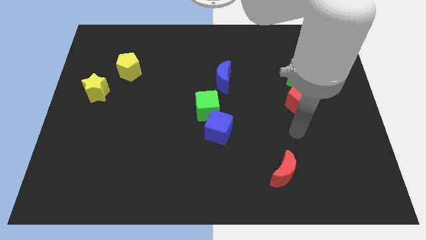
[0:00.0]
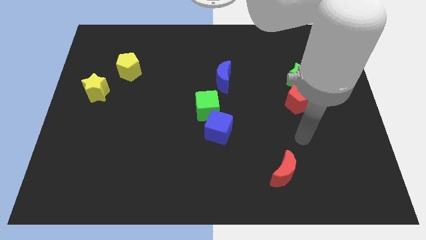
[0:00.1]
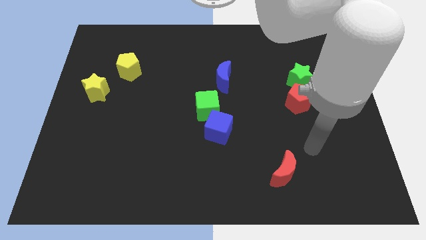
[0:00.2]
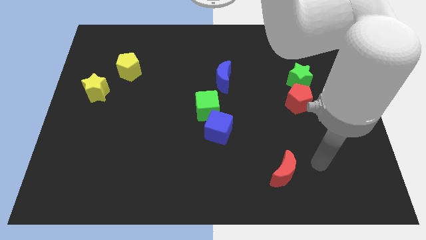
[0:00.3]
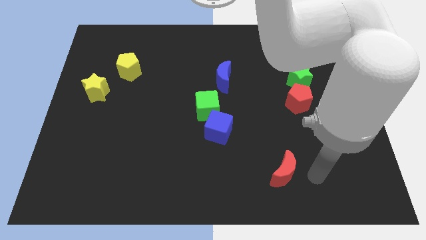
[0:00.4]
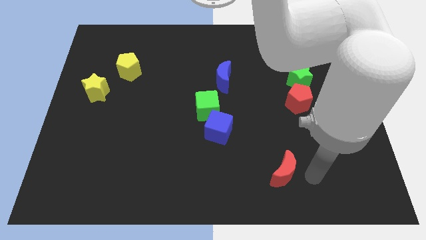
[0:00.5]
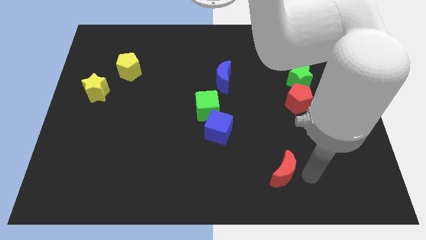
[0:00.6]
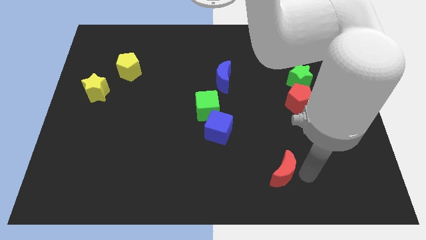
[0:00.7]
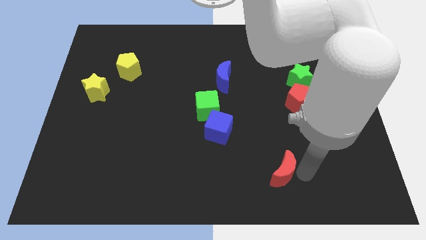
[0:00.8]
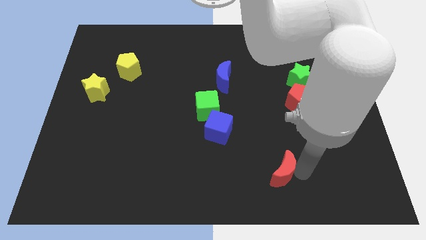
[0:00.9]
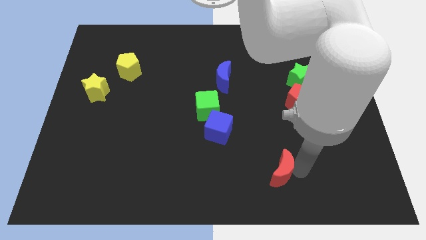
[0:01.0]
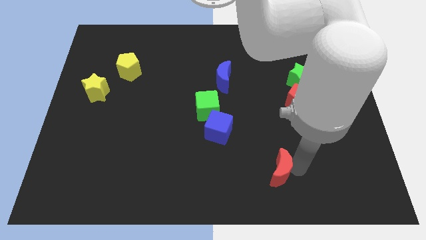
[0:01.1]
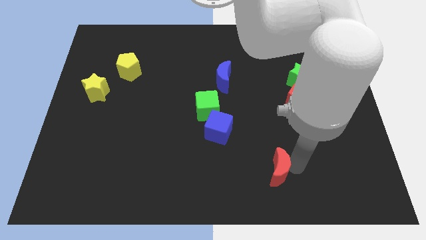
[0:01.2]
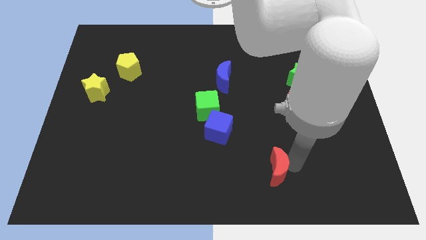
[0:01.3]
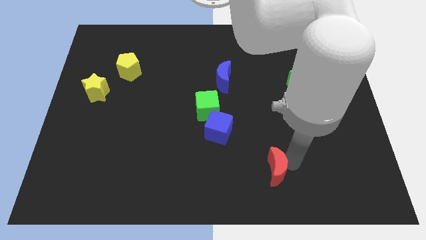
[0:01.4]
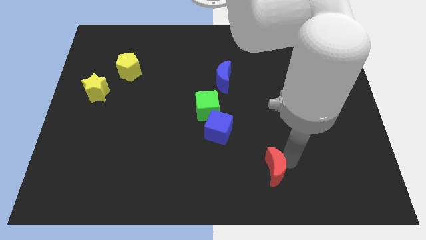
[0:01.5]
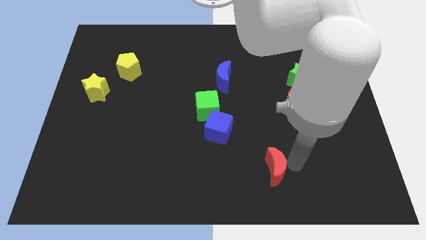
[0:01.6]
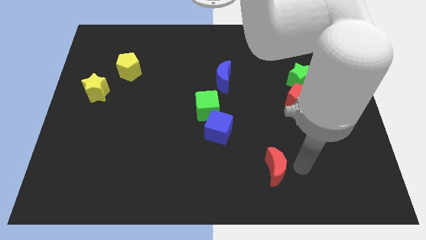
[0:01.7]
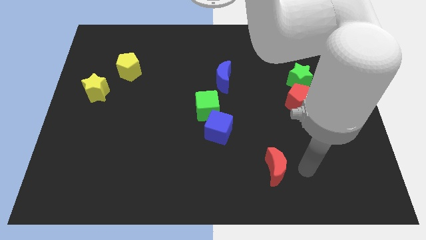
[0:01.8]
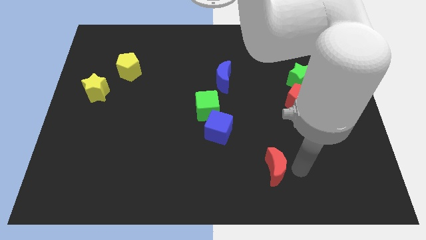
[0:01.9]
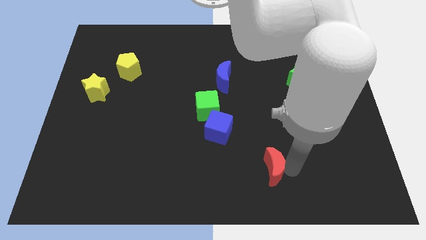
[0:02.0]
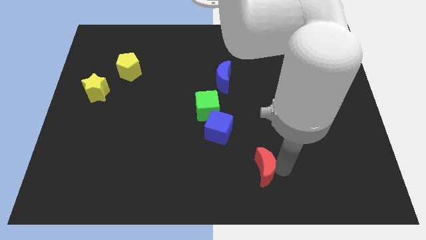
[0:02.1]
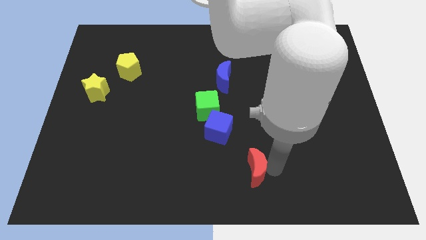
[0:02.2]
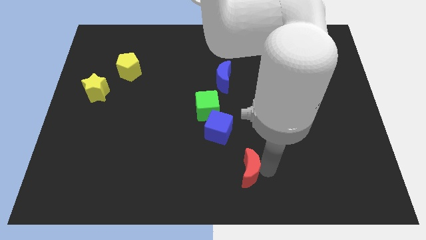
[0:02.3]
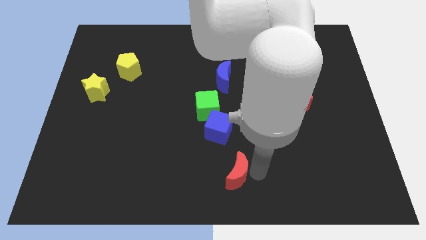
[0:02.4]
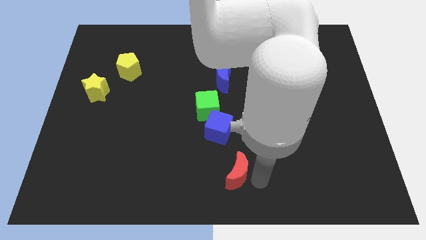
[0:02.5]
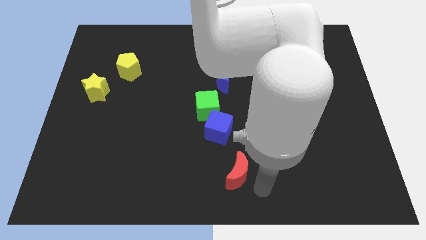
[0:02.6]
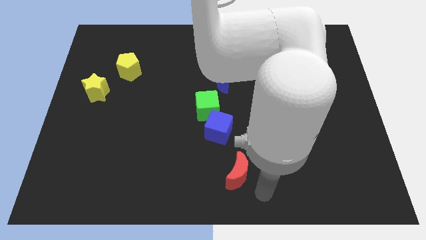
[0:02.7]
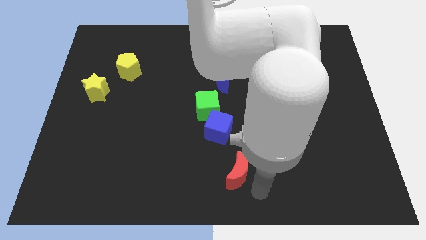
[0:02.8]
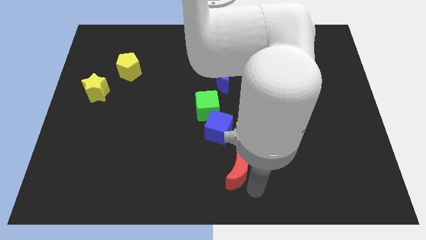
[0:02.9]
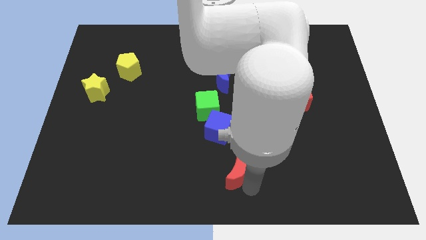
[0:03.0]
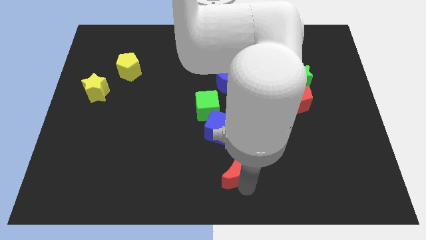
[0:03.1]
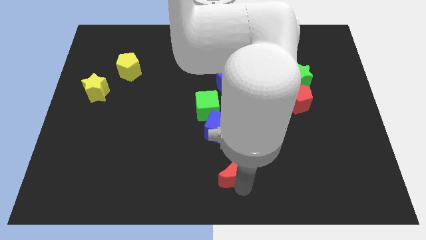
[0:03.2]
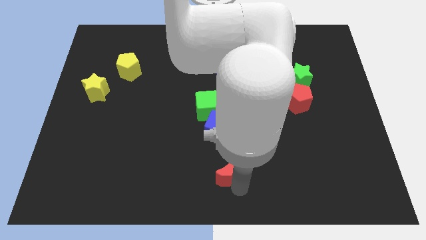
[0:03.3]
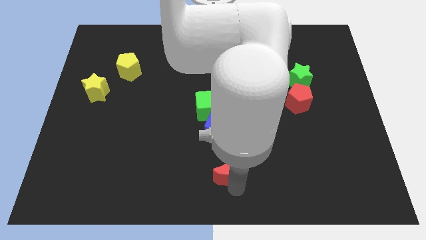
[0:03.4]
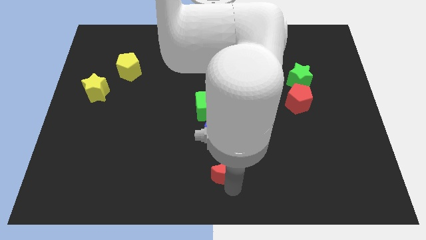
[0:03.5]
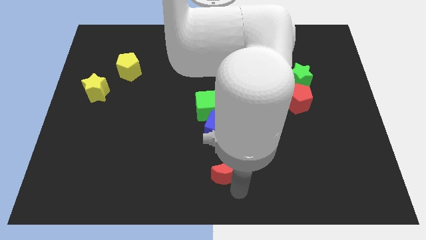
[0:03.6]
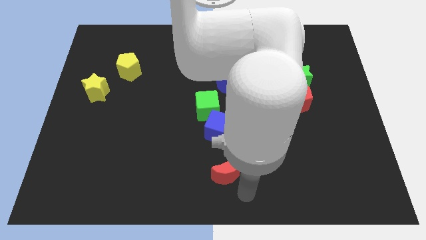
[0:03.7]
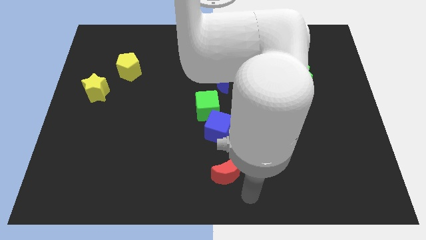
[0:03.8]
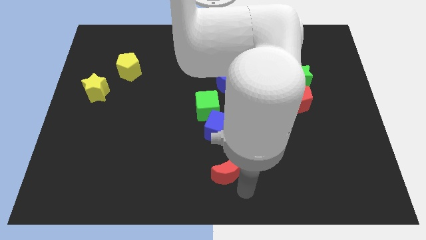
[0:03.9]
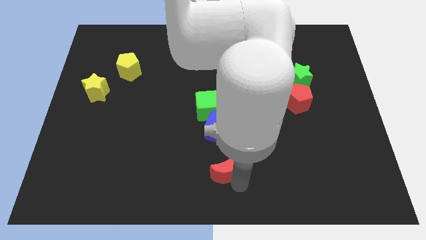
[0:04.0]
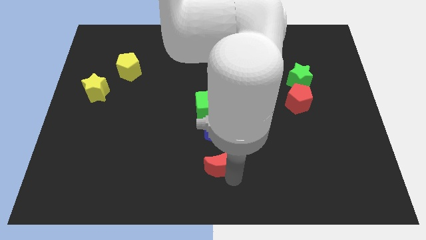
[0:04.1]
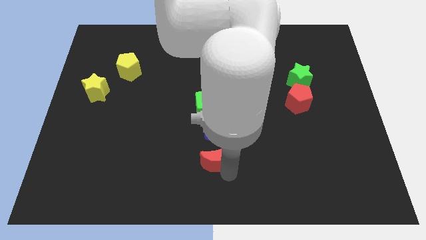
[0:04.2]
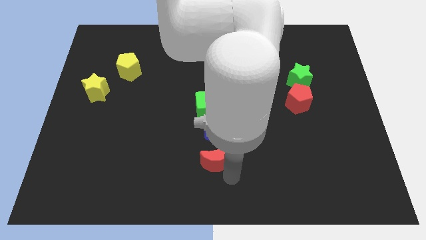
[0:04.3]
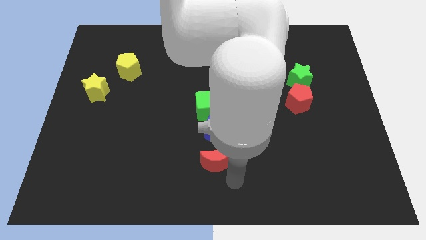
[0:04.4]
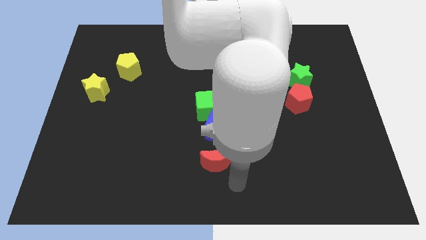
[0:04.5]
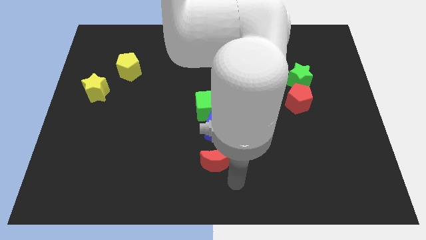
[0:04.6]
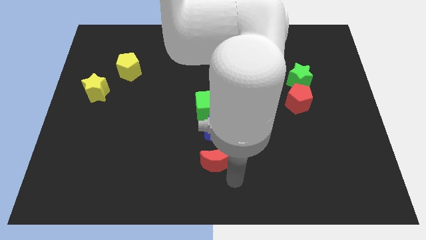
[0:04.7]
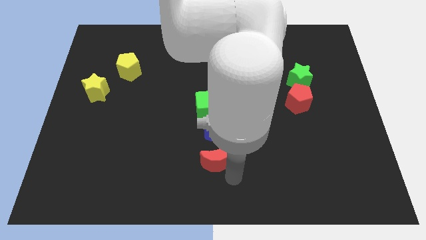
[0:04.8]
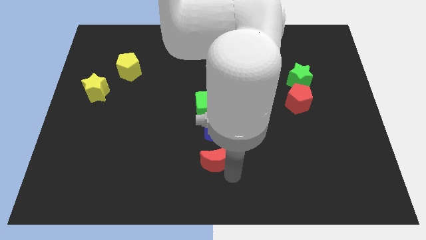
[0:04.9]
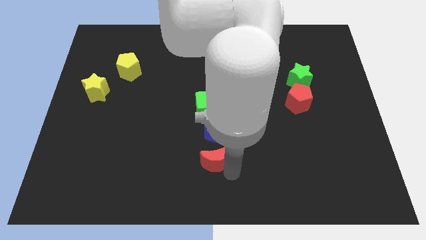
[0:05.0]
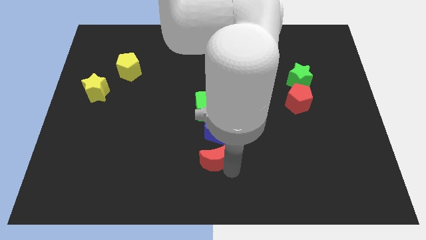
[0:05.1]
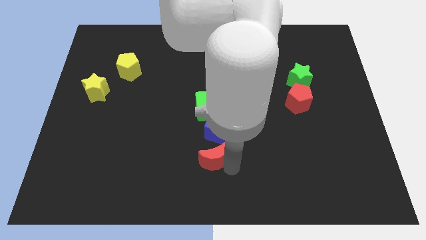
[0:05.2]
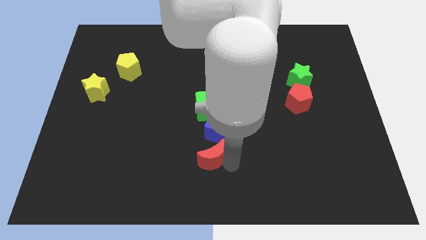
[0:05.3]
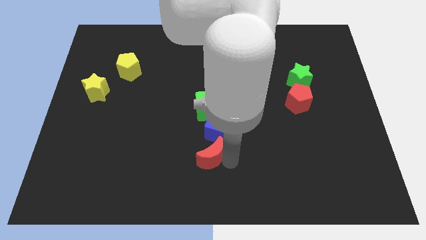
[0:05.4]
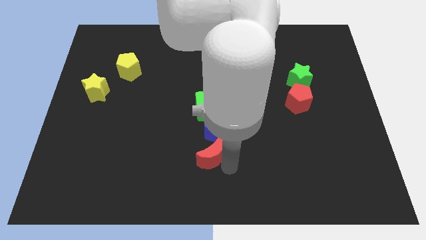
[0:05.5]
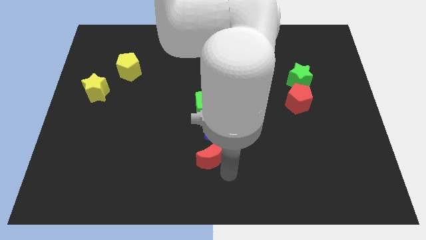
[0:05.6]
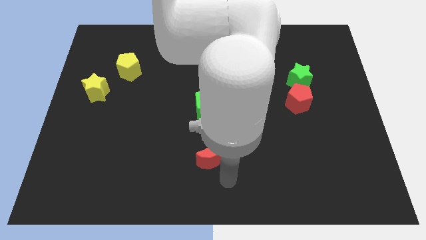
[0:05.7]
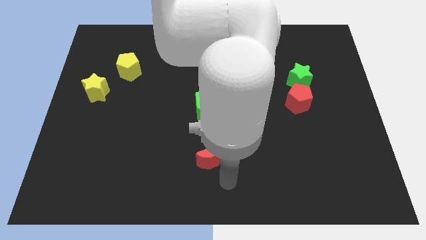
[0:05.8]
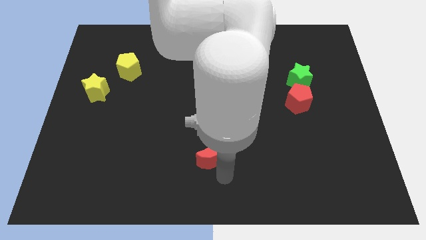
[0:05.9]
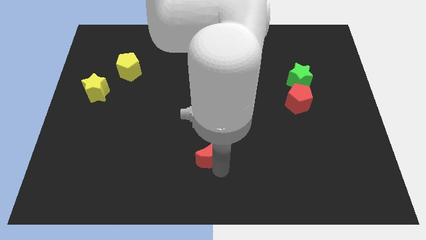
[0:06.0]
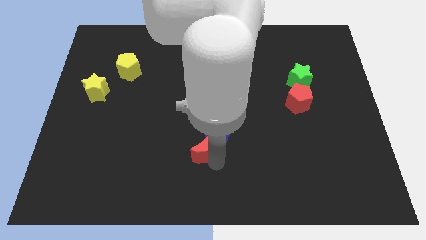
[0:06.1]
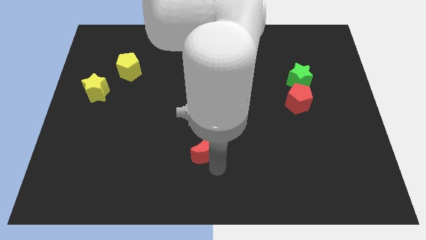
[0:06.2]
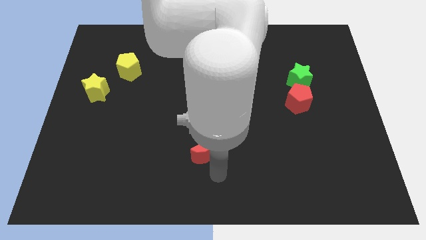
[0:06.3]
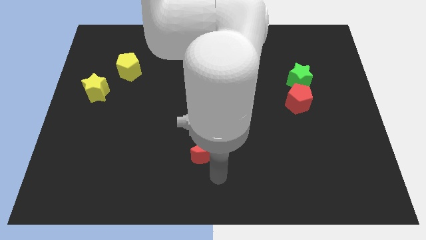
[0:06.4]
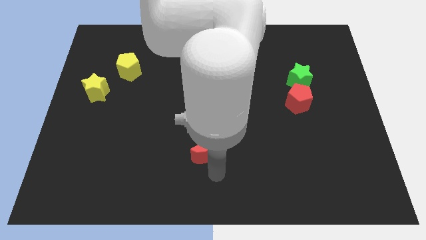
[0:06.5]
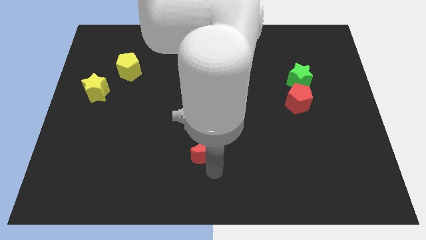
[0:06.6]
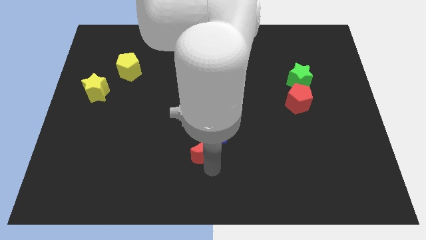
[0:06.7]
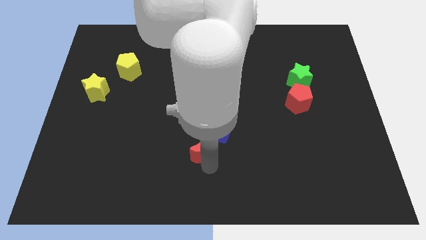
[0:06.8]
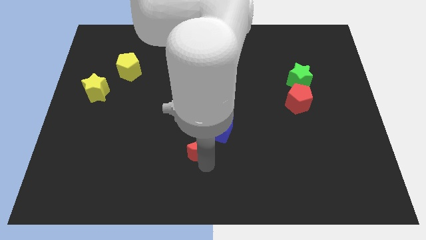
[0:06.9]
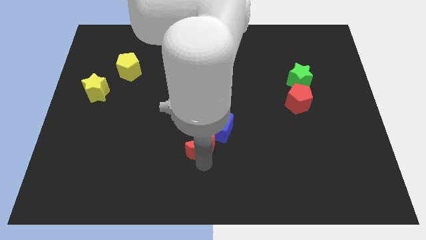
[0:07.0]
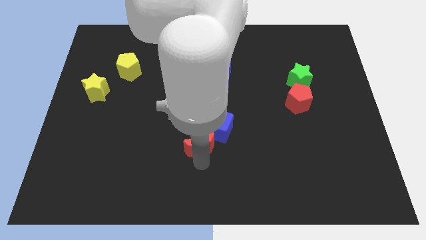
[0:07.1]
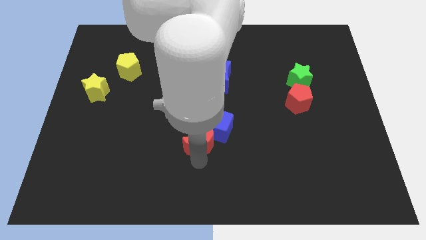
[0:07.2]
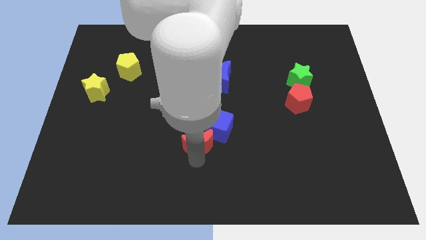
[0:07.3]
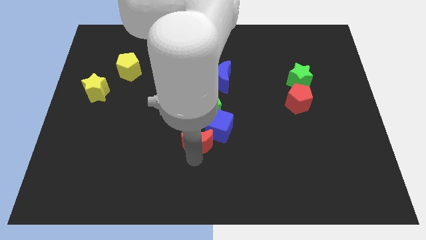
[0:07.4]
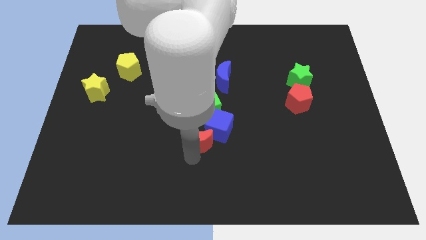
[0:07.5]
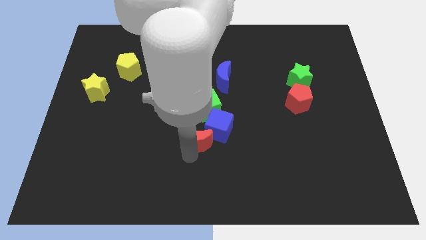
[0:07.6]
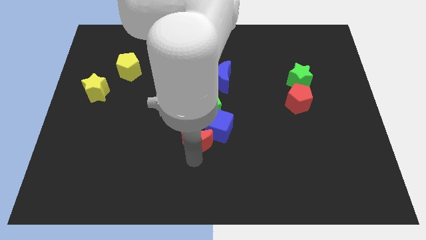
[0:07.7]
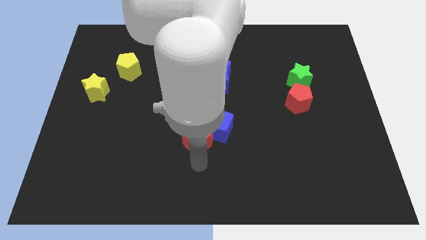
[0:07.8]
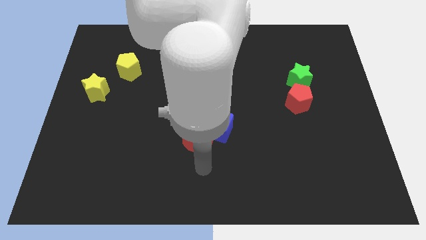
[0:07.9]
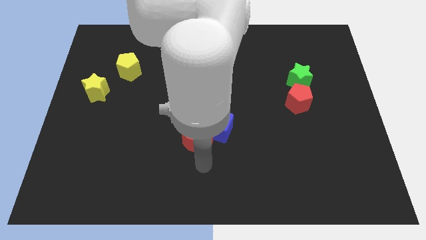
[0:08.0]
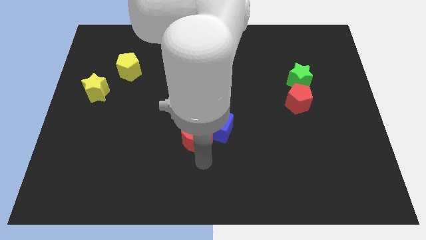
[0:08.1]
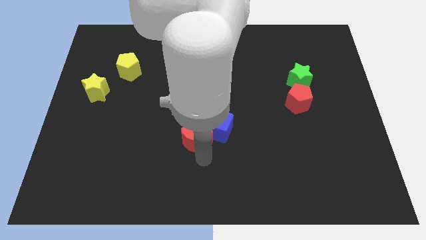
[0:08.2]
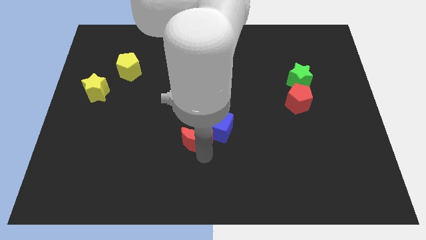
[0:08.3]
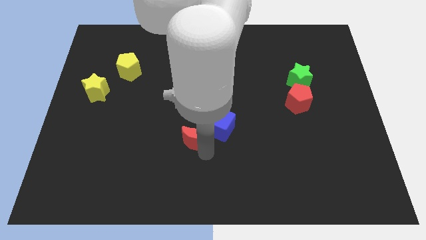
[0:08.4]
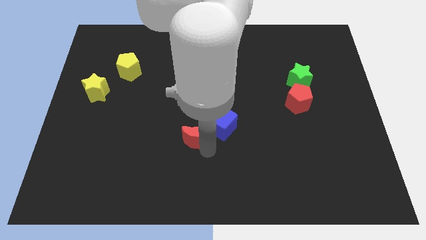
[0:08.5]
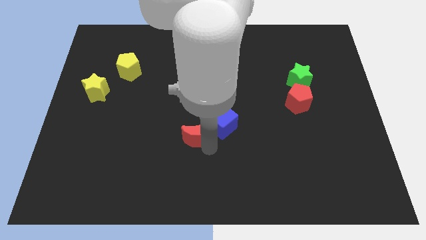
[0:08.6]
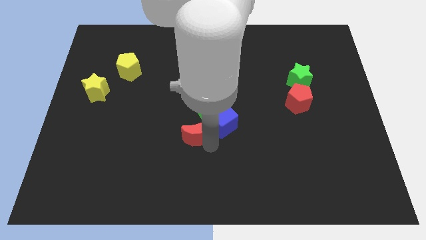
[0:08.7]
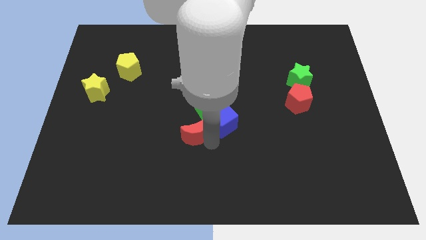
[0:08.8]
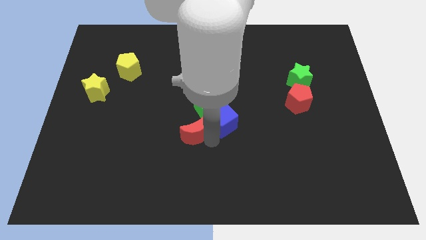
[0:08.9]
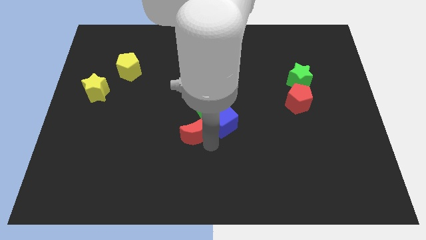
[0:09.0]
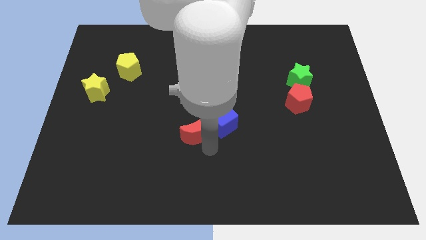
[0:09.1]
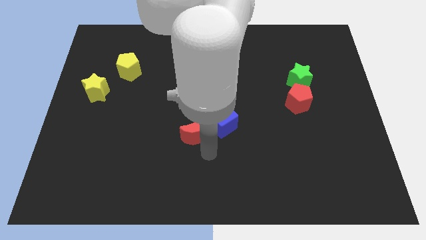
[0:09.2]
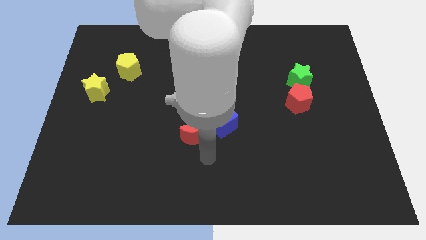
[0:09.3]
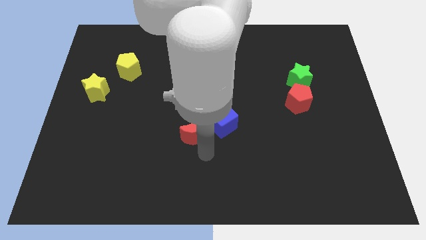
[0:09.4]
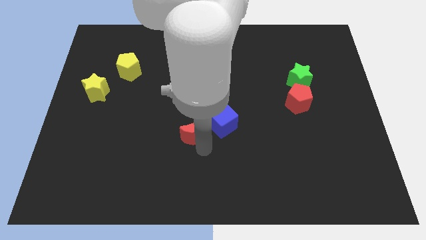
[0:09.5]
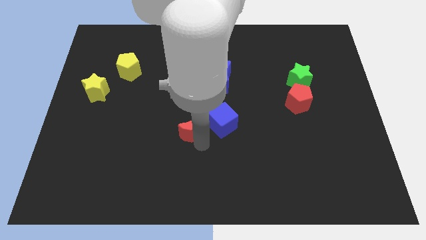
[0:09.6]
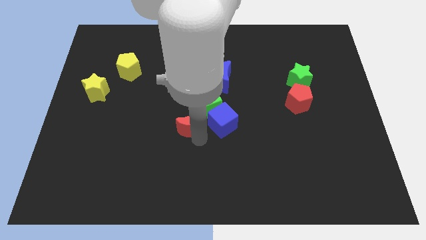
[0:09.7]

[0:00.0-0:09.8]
move the red moon diagonally up and to the left
